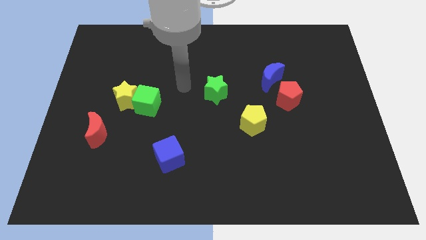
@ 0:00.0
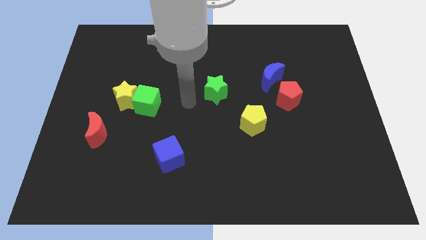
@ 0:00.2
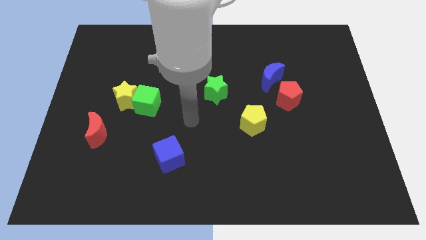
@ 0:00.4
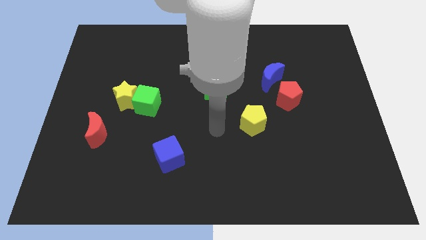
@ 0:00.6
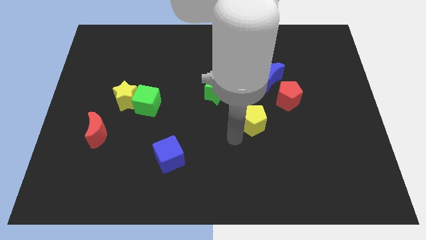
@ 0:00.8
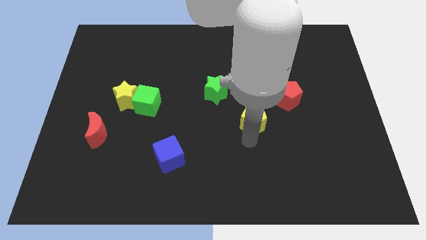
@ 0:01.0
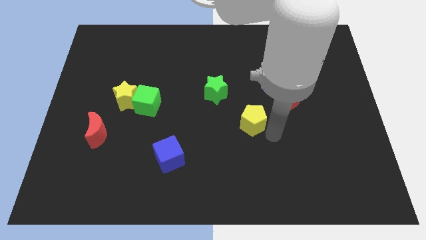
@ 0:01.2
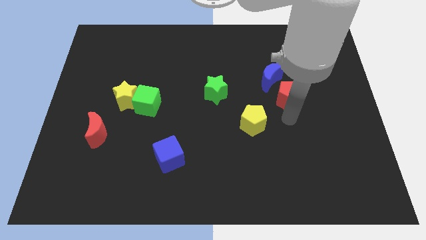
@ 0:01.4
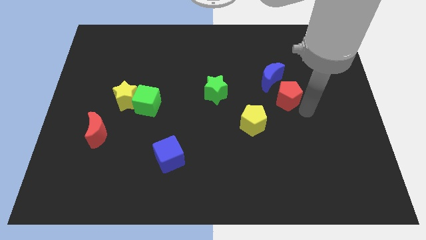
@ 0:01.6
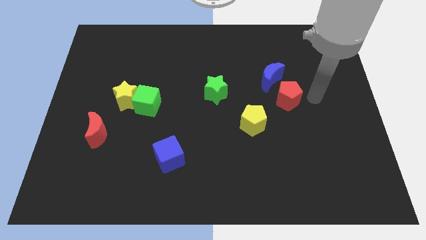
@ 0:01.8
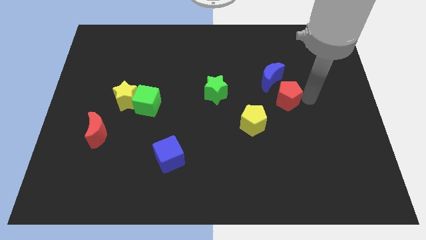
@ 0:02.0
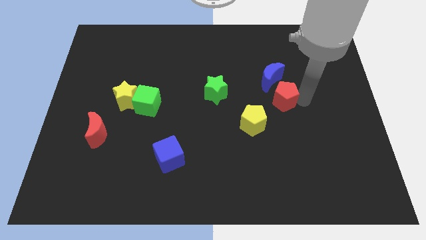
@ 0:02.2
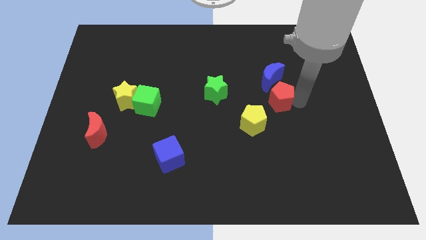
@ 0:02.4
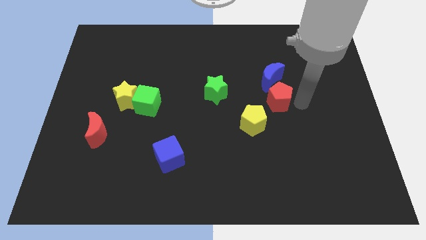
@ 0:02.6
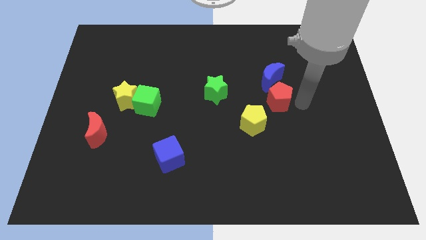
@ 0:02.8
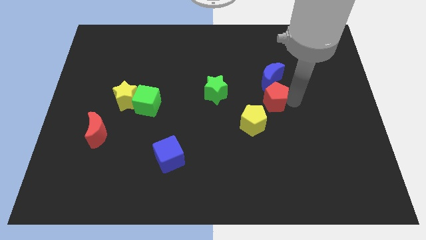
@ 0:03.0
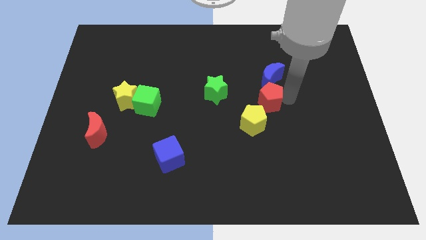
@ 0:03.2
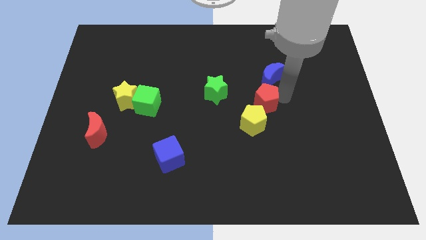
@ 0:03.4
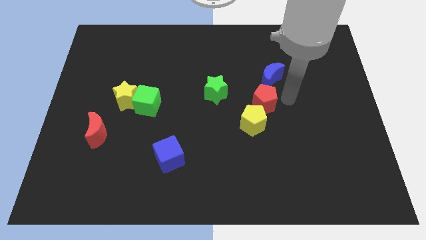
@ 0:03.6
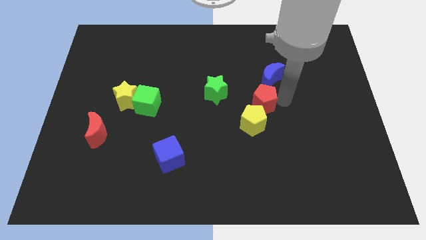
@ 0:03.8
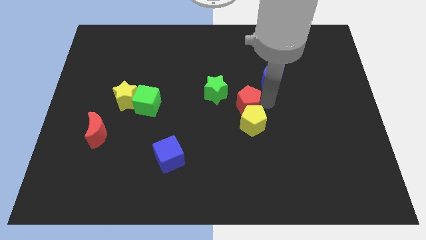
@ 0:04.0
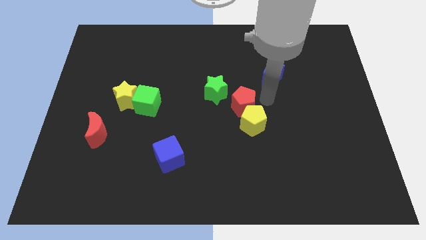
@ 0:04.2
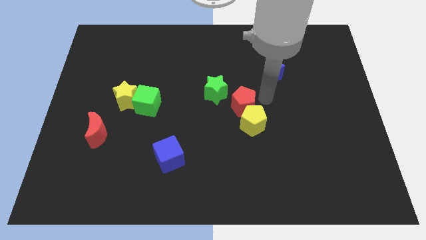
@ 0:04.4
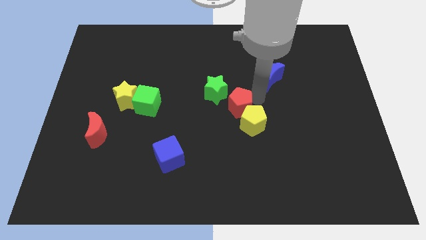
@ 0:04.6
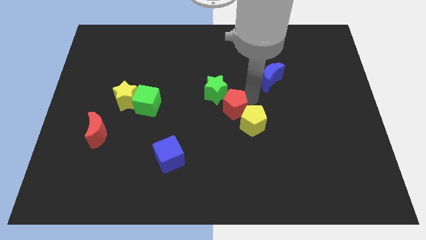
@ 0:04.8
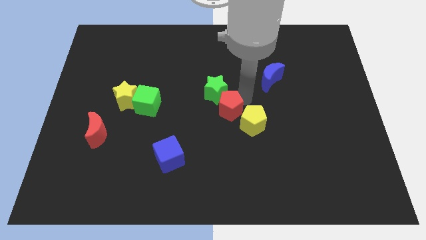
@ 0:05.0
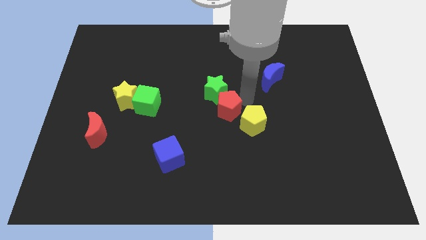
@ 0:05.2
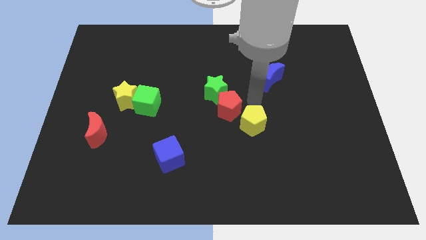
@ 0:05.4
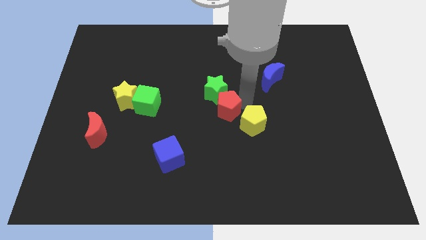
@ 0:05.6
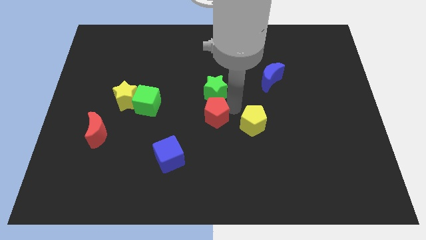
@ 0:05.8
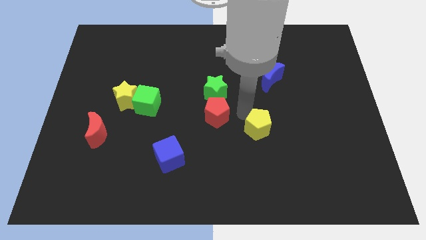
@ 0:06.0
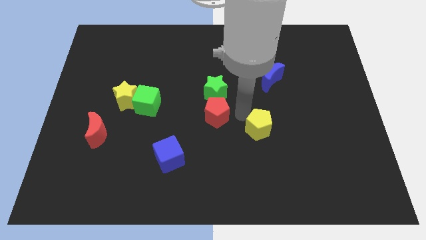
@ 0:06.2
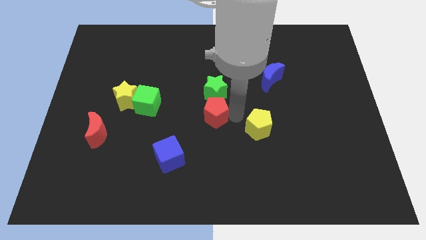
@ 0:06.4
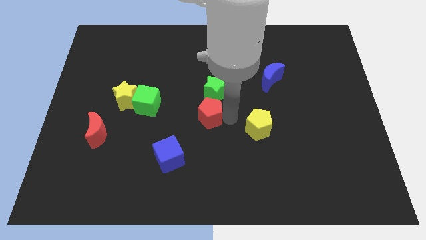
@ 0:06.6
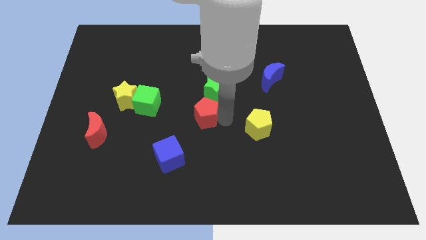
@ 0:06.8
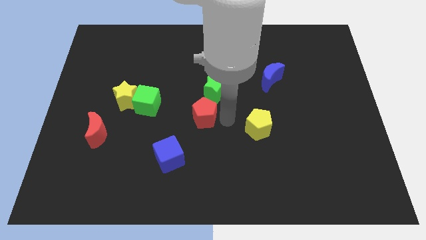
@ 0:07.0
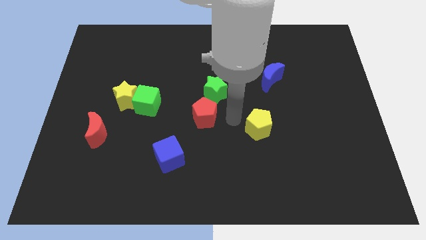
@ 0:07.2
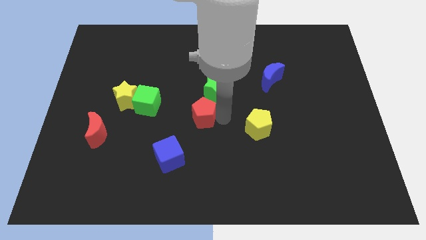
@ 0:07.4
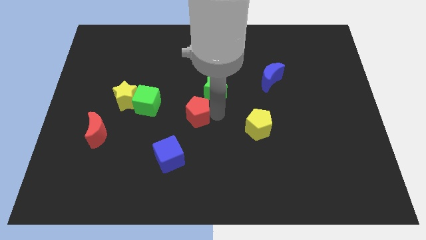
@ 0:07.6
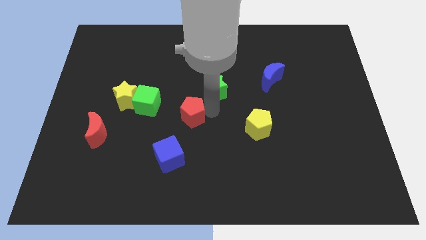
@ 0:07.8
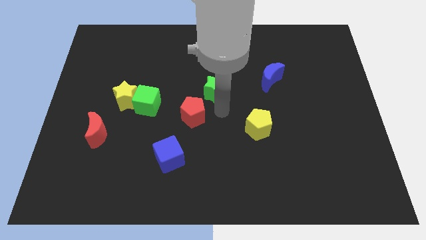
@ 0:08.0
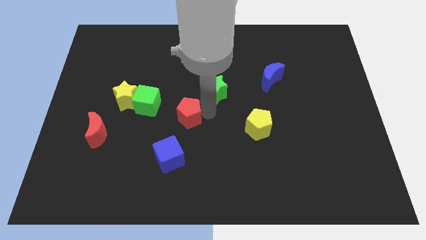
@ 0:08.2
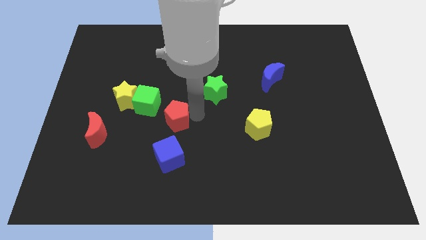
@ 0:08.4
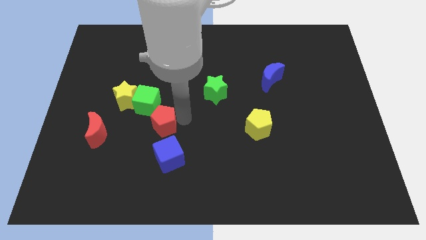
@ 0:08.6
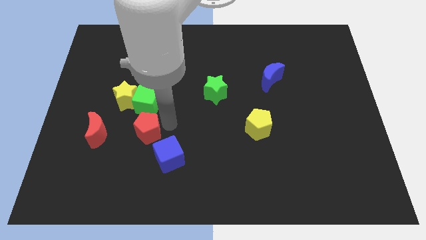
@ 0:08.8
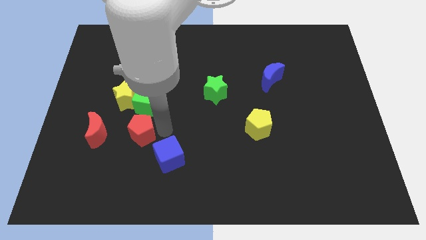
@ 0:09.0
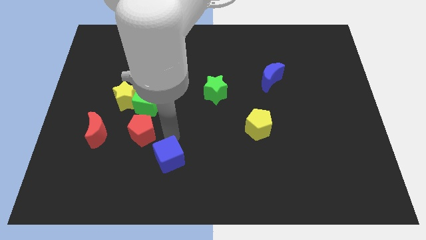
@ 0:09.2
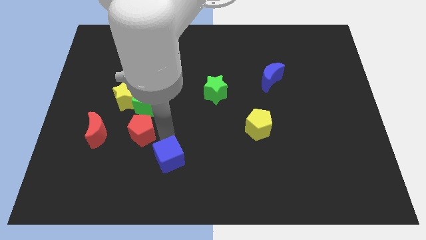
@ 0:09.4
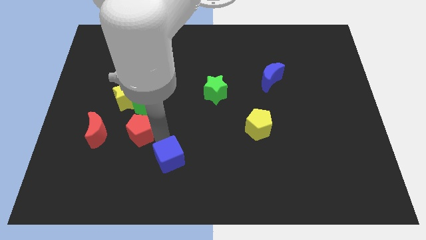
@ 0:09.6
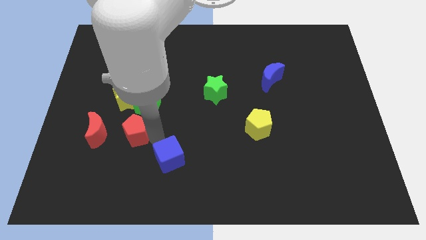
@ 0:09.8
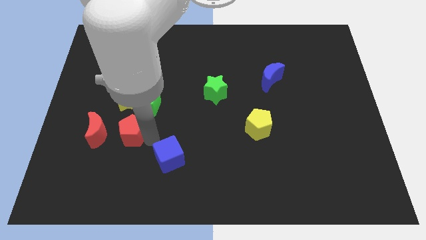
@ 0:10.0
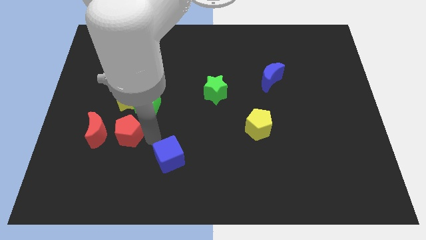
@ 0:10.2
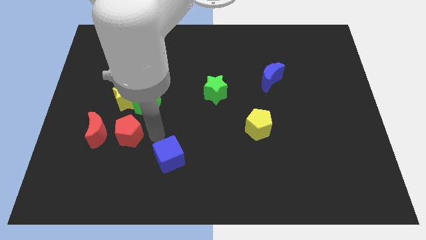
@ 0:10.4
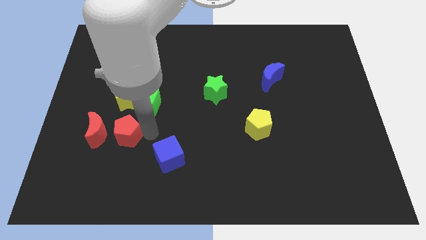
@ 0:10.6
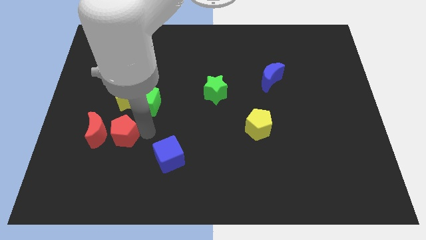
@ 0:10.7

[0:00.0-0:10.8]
slide the red pentagon close to the red moon

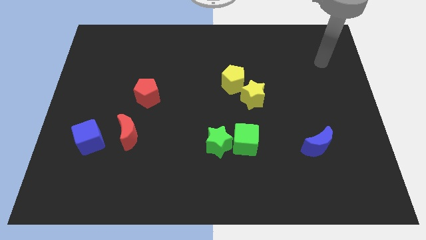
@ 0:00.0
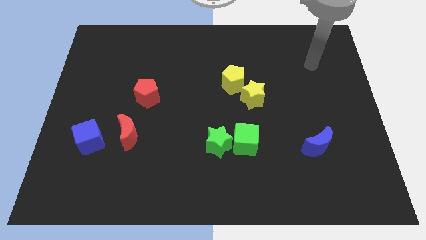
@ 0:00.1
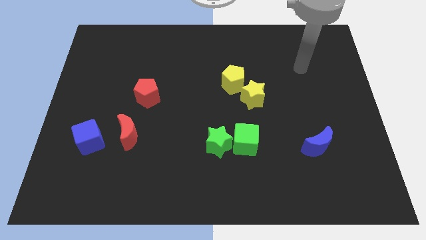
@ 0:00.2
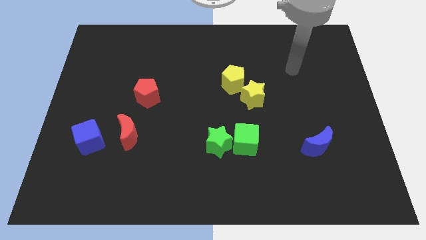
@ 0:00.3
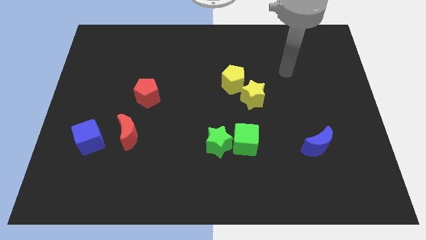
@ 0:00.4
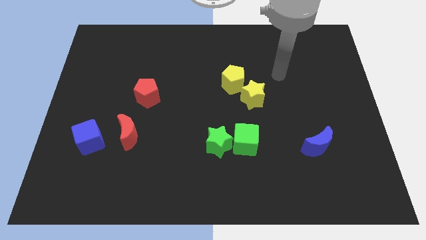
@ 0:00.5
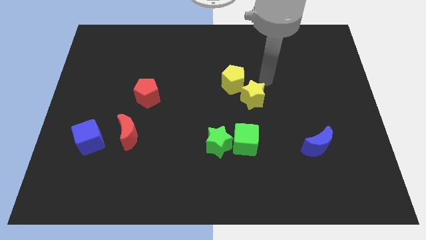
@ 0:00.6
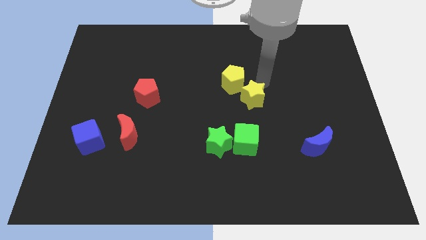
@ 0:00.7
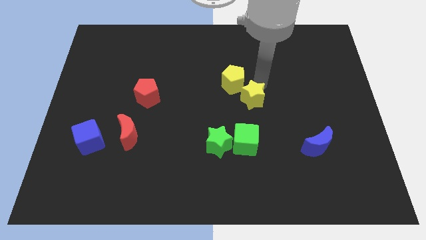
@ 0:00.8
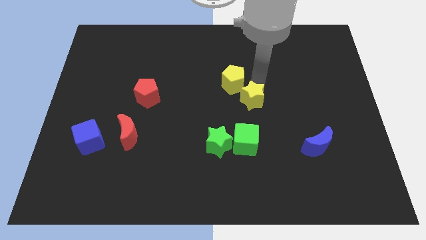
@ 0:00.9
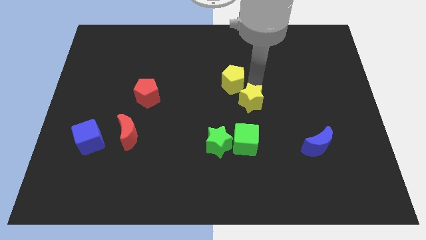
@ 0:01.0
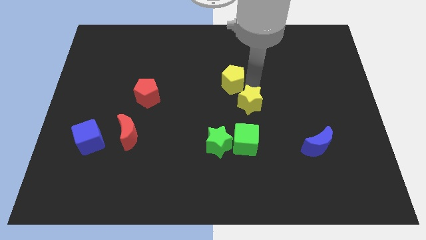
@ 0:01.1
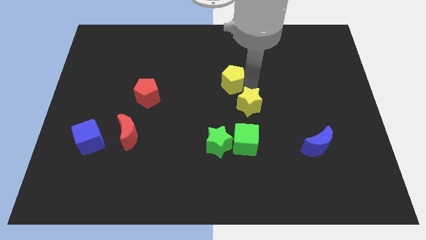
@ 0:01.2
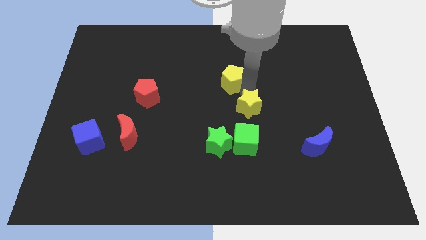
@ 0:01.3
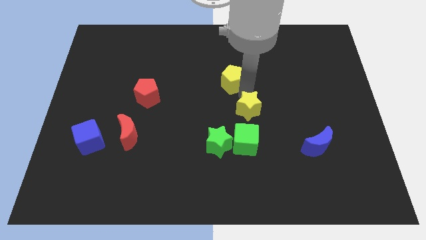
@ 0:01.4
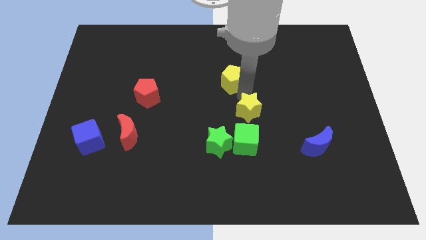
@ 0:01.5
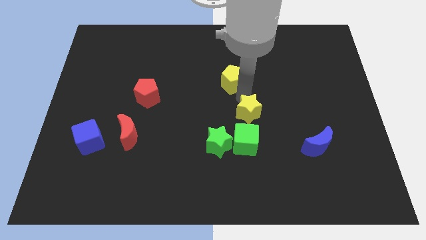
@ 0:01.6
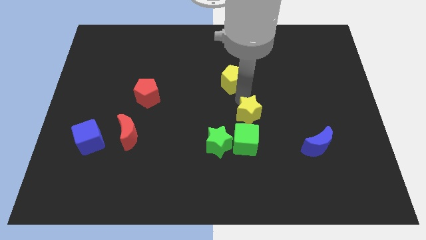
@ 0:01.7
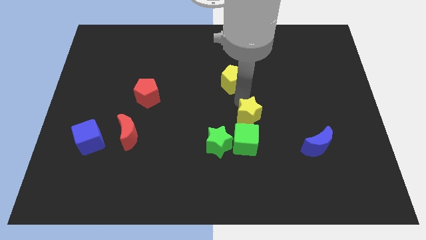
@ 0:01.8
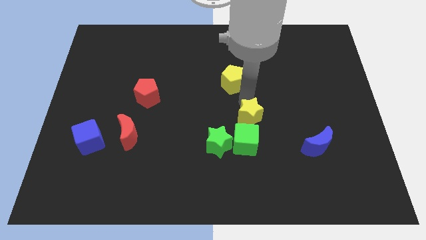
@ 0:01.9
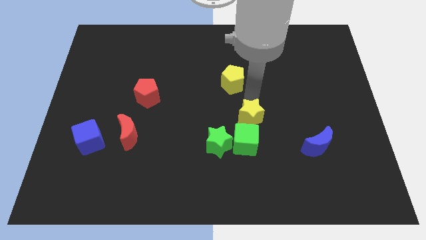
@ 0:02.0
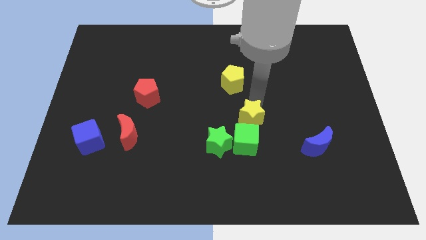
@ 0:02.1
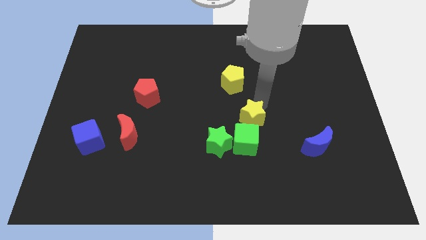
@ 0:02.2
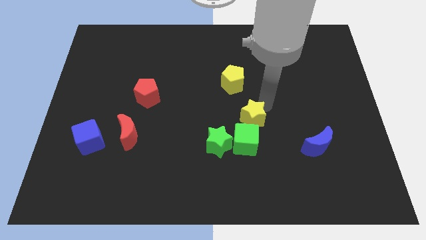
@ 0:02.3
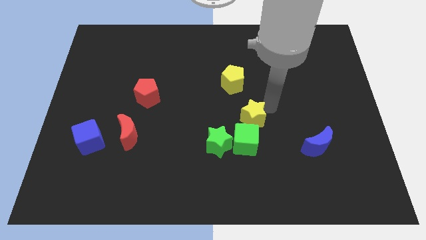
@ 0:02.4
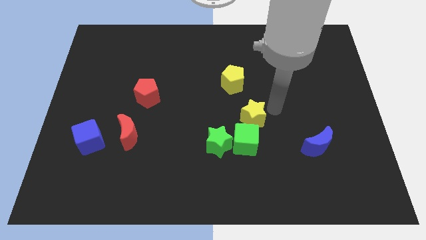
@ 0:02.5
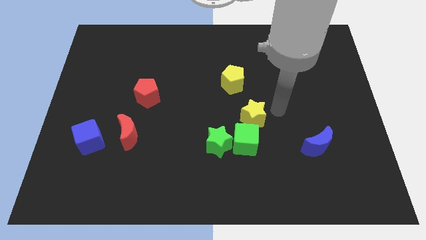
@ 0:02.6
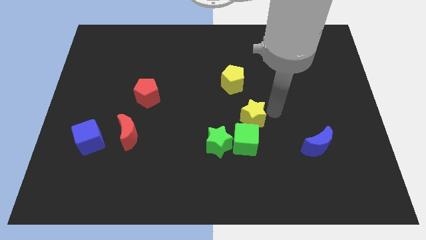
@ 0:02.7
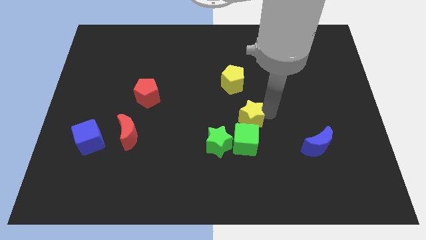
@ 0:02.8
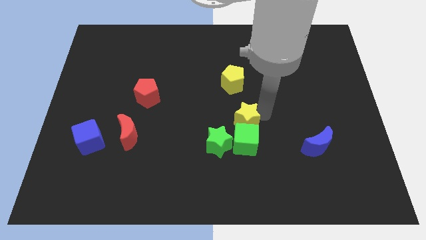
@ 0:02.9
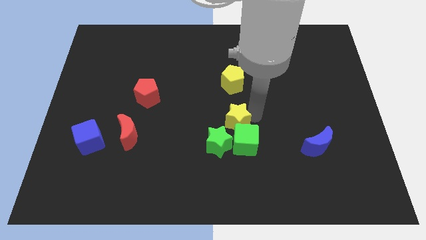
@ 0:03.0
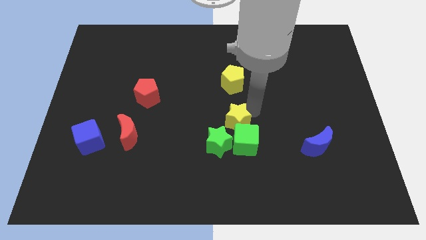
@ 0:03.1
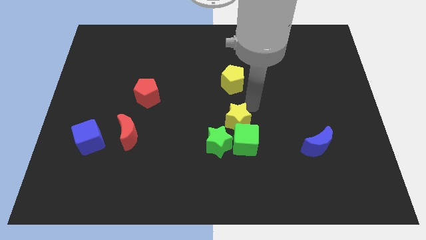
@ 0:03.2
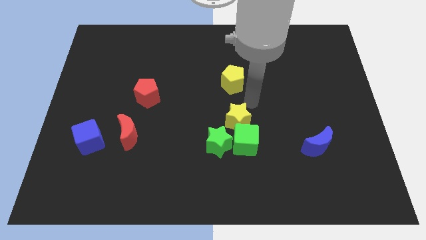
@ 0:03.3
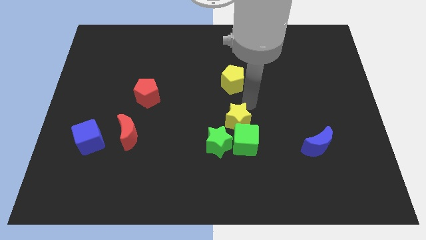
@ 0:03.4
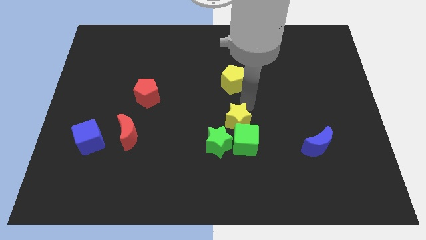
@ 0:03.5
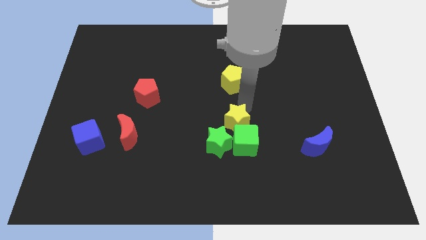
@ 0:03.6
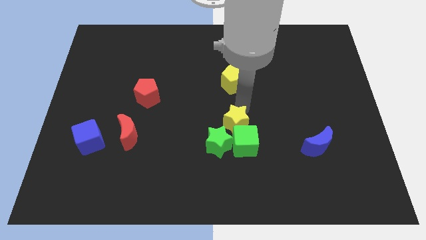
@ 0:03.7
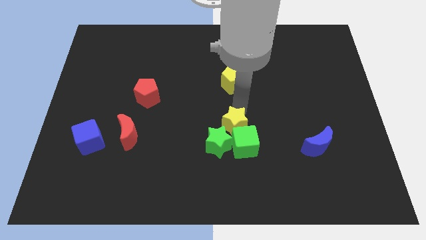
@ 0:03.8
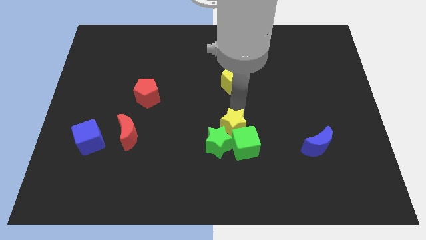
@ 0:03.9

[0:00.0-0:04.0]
put the yellow star towards the green star
